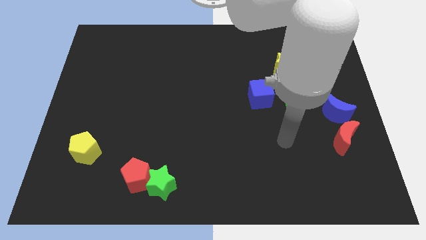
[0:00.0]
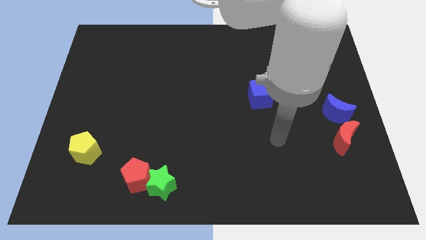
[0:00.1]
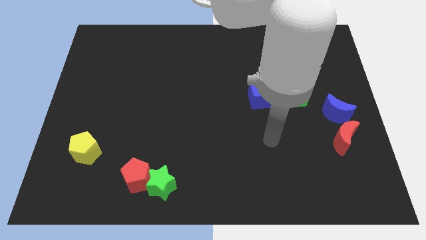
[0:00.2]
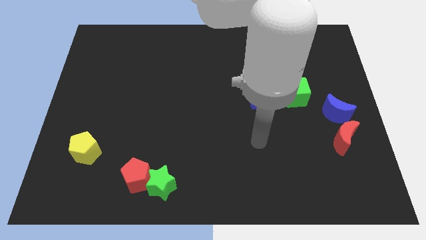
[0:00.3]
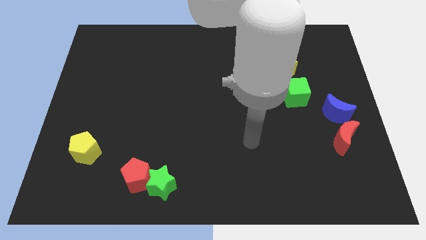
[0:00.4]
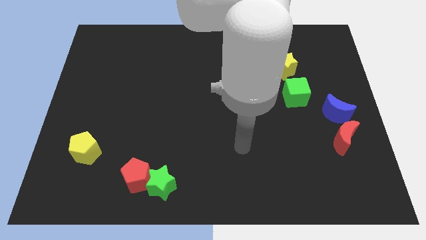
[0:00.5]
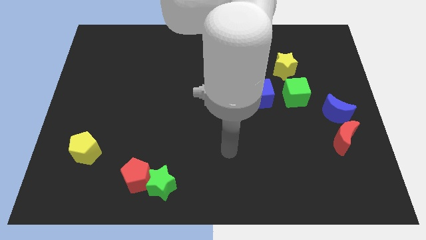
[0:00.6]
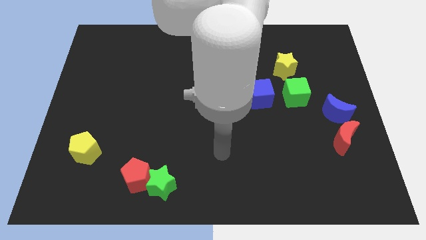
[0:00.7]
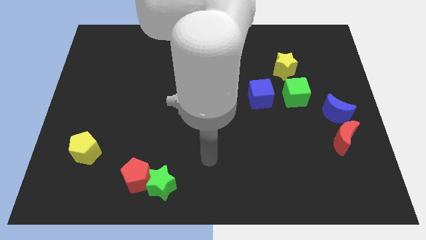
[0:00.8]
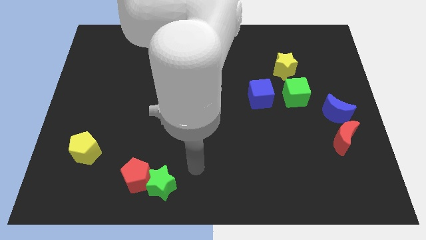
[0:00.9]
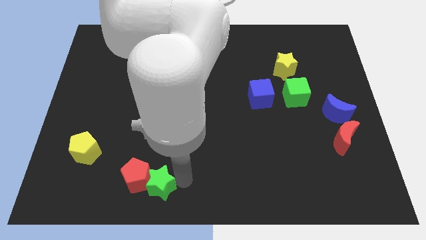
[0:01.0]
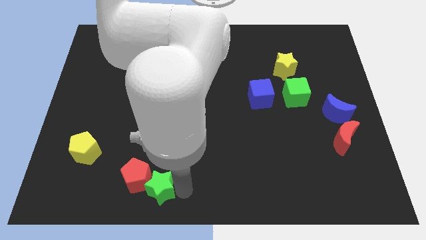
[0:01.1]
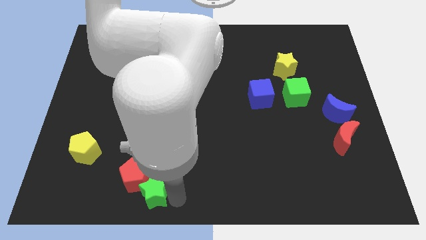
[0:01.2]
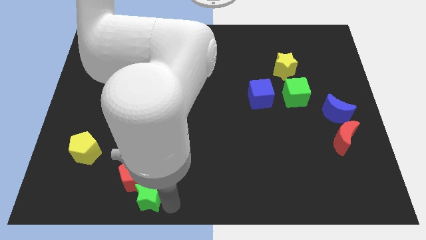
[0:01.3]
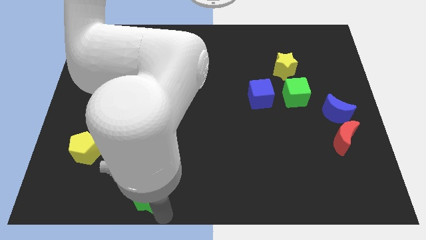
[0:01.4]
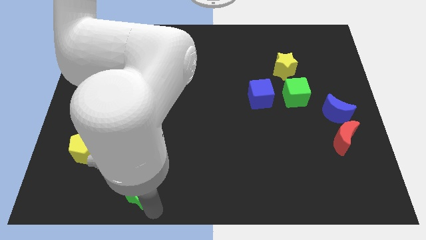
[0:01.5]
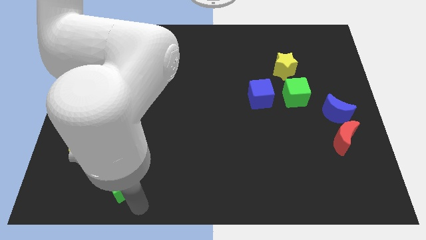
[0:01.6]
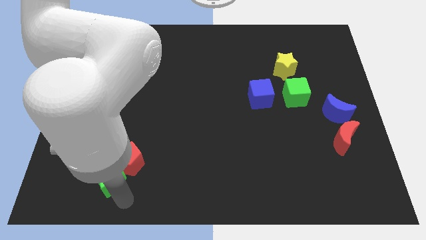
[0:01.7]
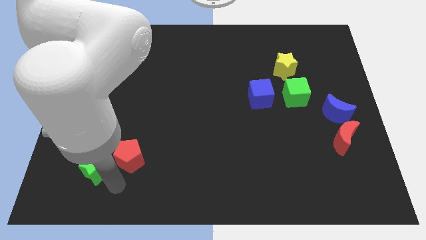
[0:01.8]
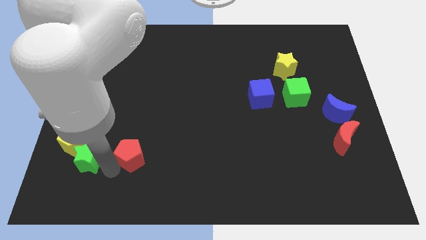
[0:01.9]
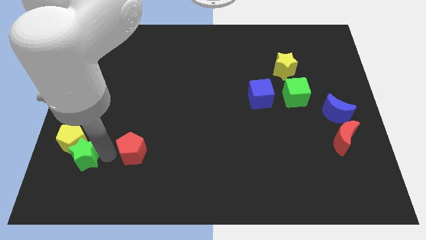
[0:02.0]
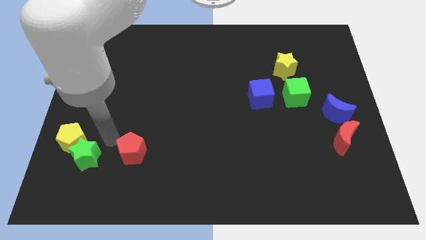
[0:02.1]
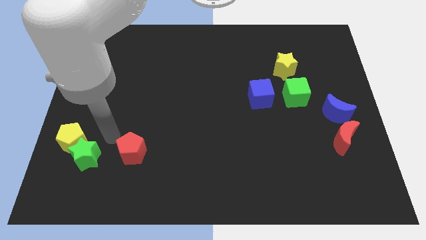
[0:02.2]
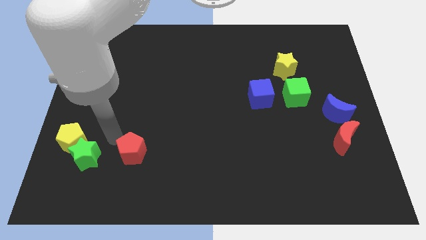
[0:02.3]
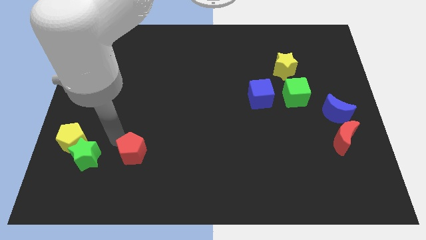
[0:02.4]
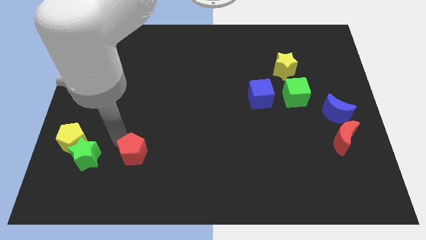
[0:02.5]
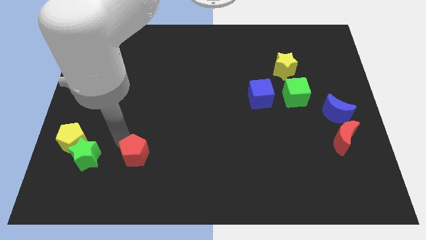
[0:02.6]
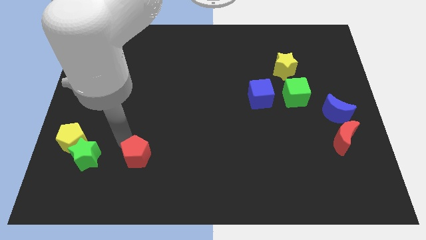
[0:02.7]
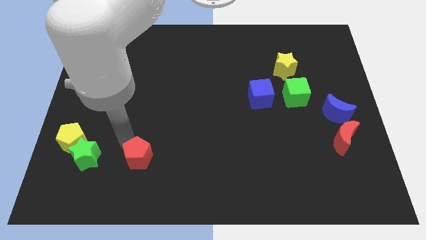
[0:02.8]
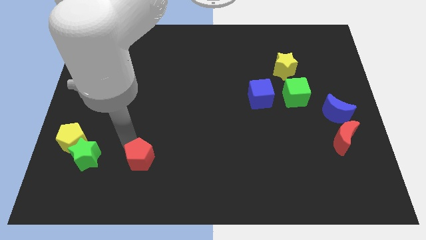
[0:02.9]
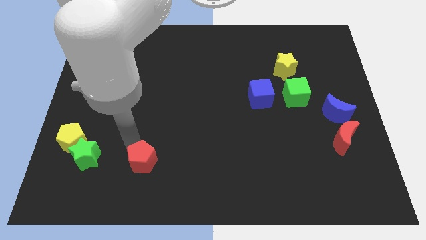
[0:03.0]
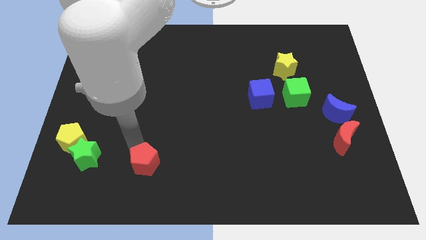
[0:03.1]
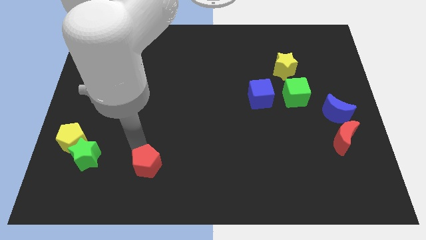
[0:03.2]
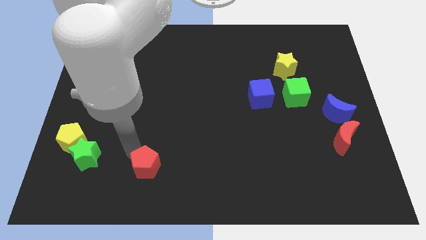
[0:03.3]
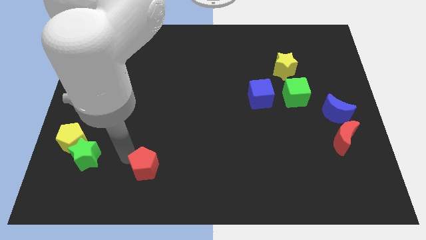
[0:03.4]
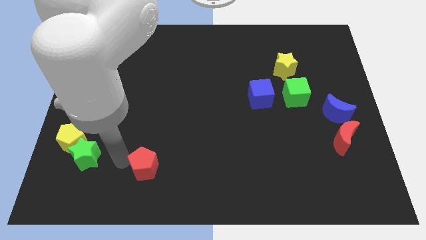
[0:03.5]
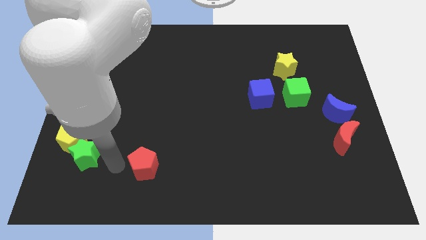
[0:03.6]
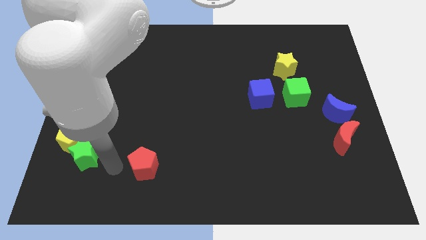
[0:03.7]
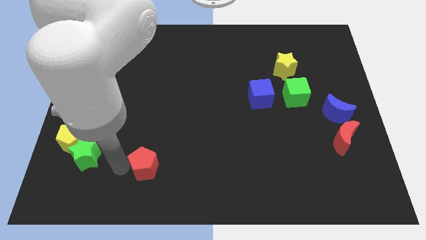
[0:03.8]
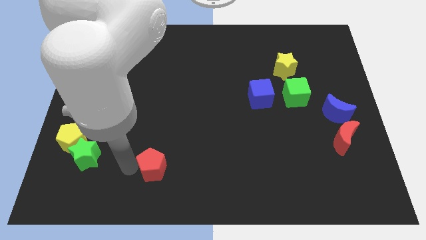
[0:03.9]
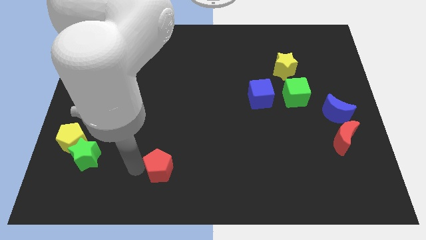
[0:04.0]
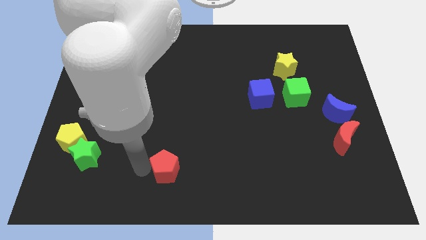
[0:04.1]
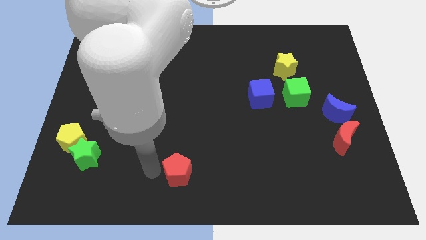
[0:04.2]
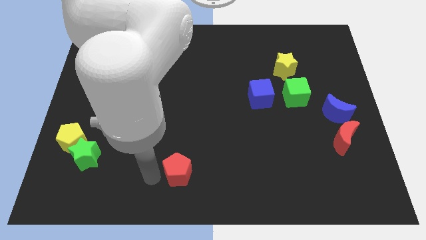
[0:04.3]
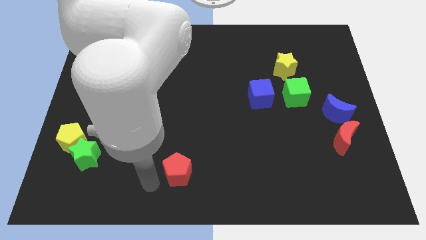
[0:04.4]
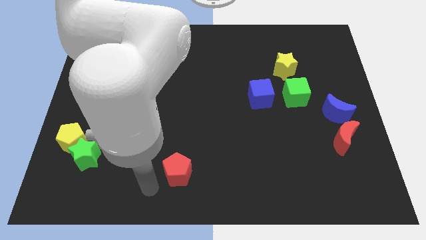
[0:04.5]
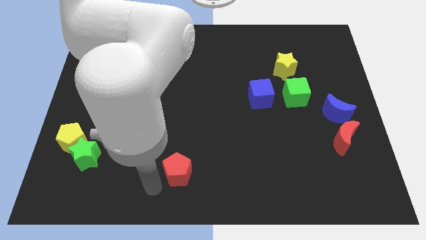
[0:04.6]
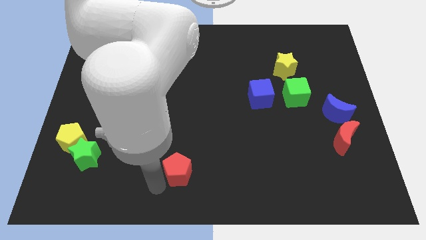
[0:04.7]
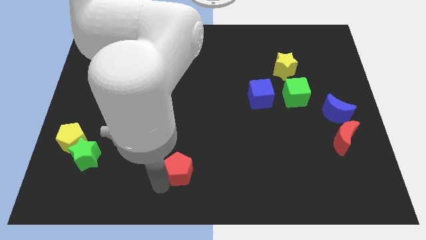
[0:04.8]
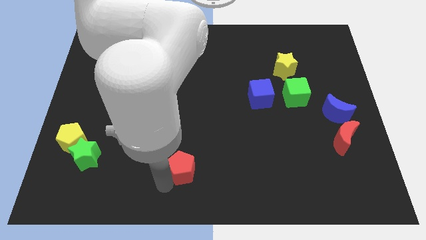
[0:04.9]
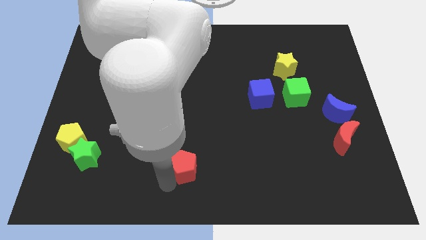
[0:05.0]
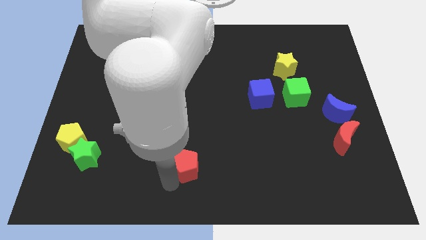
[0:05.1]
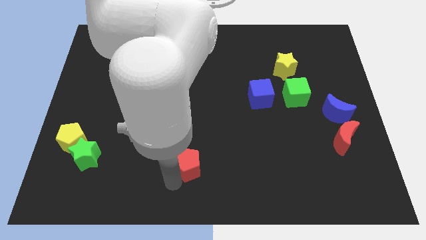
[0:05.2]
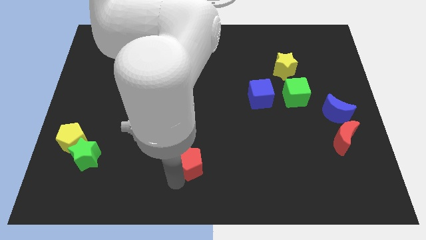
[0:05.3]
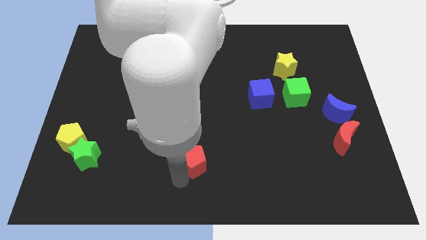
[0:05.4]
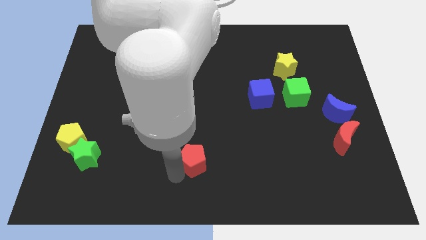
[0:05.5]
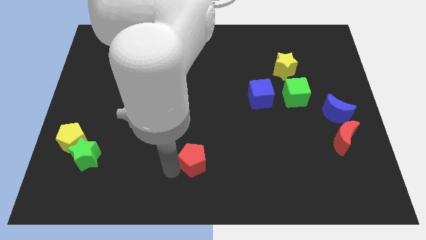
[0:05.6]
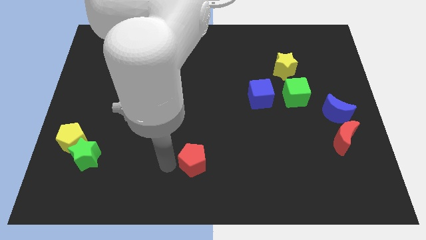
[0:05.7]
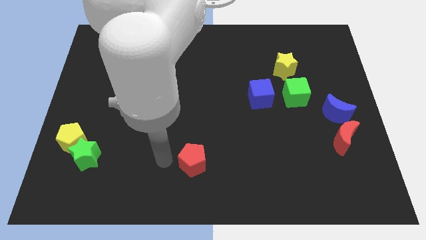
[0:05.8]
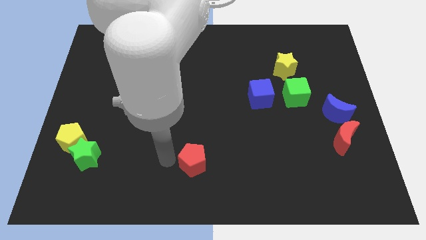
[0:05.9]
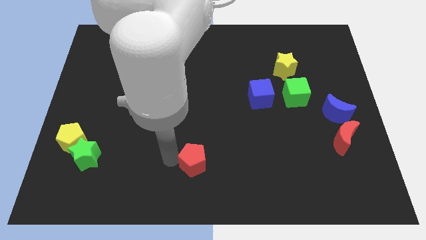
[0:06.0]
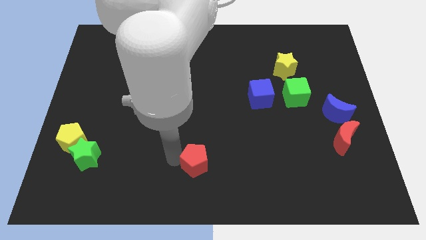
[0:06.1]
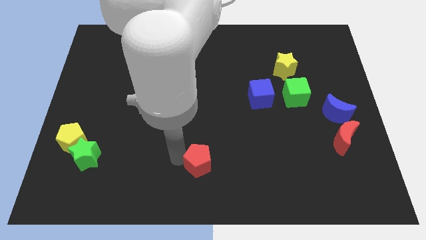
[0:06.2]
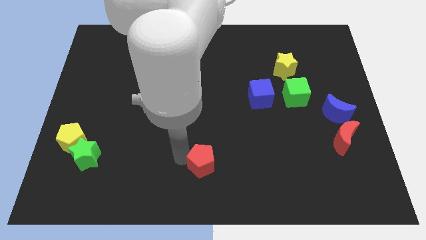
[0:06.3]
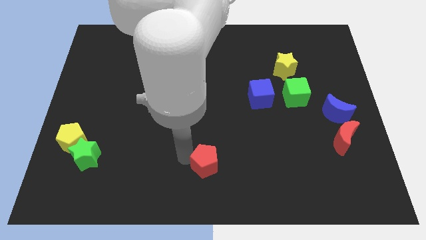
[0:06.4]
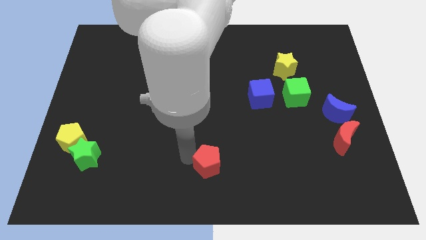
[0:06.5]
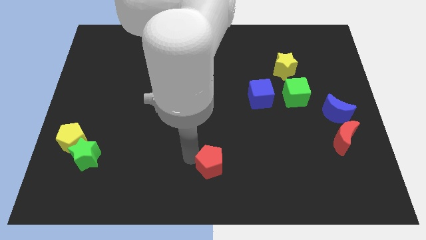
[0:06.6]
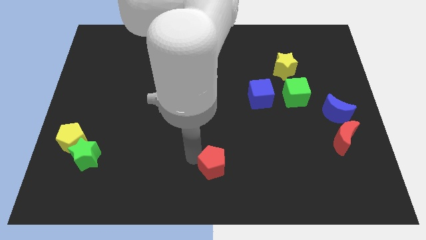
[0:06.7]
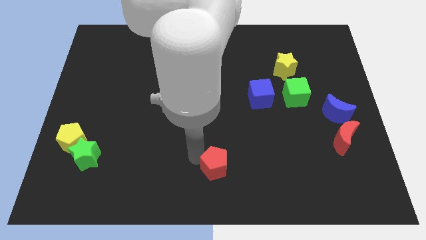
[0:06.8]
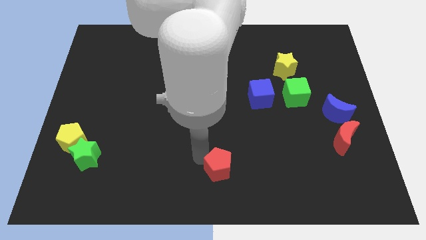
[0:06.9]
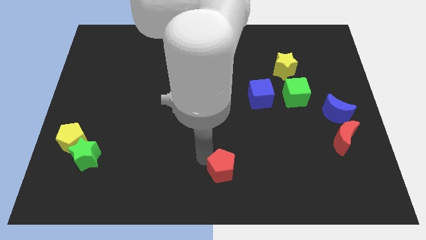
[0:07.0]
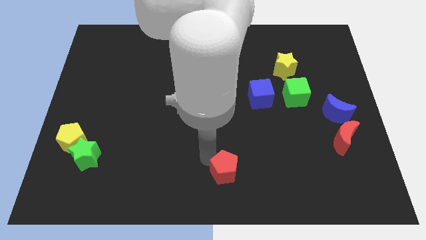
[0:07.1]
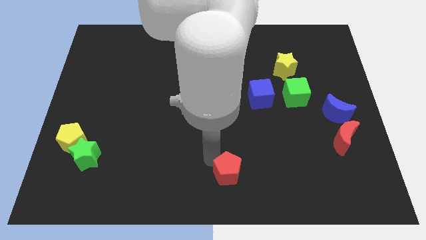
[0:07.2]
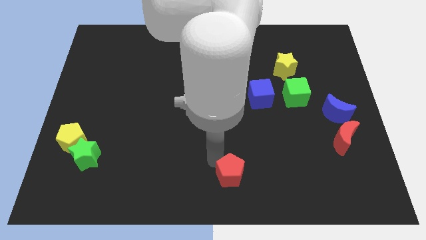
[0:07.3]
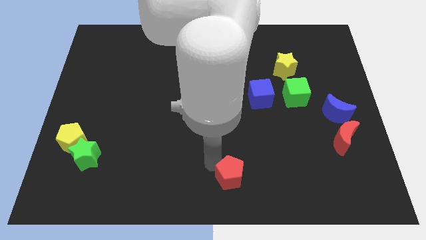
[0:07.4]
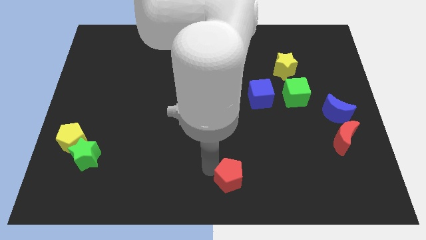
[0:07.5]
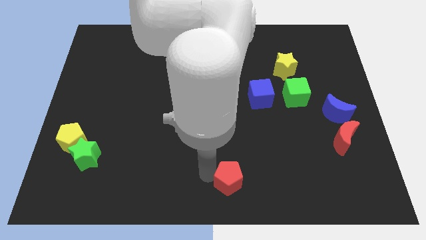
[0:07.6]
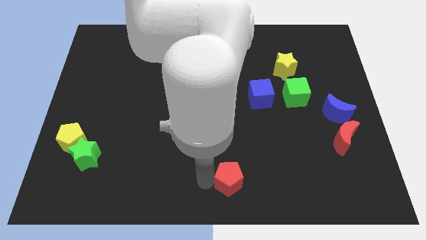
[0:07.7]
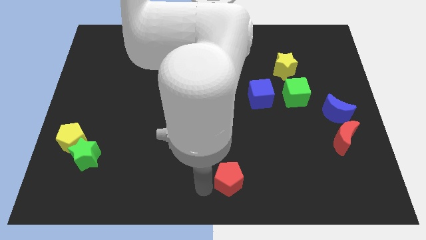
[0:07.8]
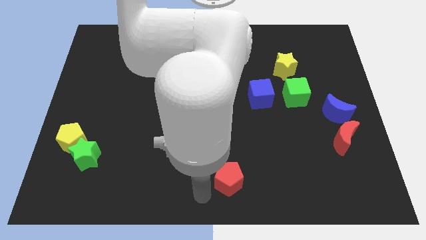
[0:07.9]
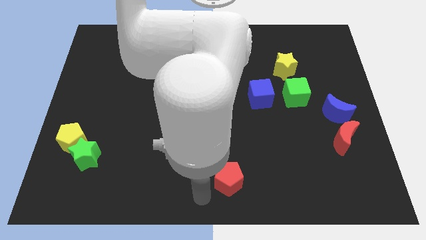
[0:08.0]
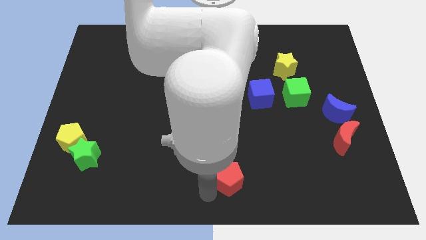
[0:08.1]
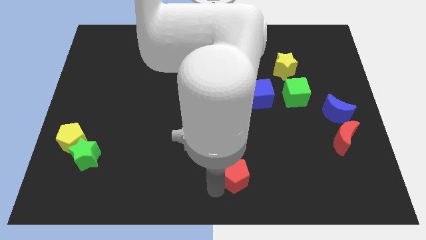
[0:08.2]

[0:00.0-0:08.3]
move the red pentagon to the right
